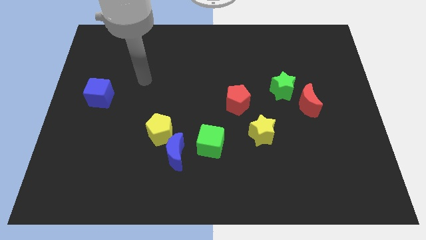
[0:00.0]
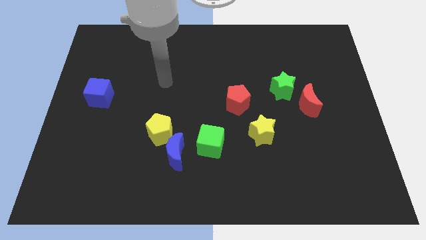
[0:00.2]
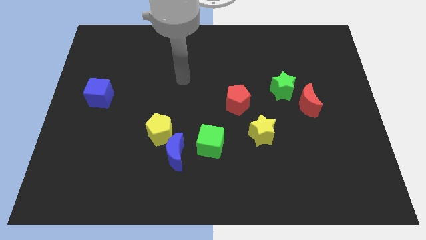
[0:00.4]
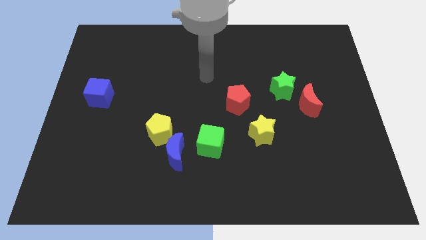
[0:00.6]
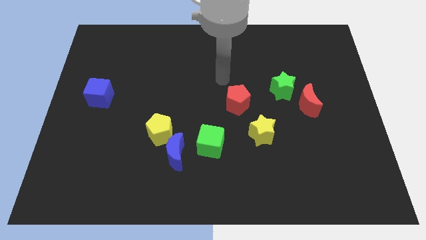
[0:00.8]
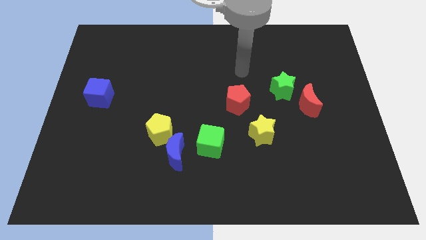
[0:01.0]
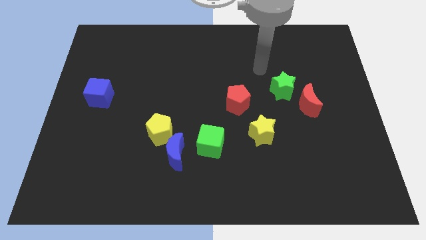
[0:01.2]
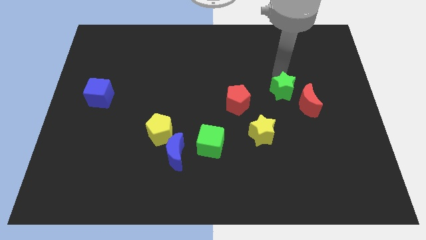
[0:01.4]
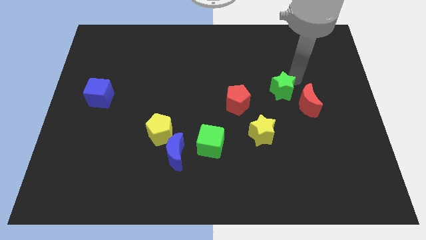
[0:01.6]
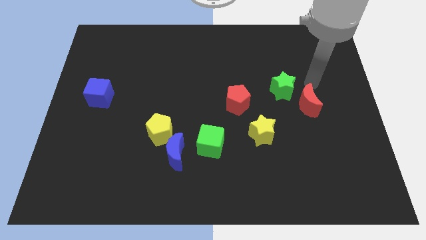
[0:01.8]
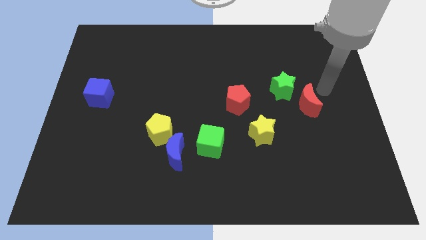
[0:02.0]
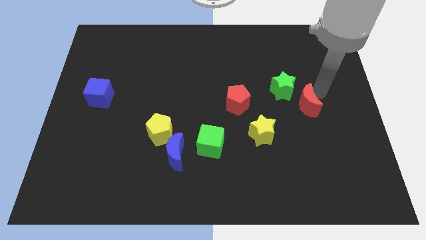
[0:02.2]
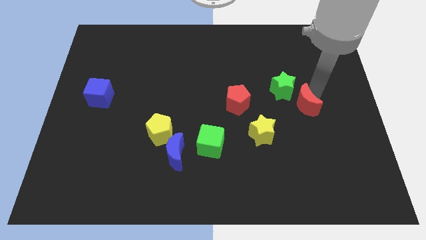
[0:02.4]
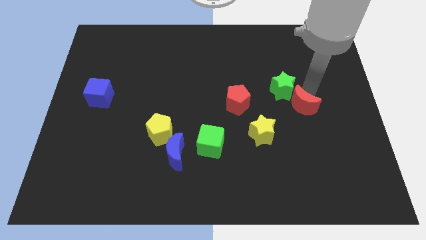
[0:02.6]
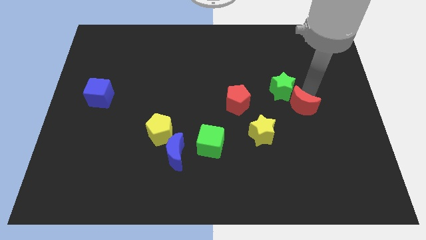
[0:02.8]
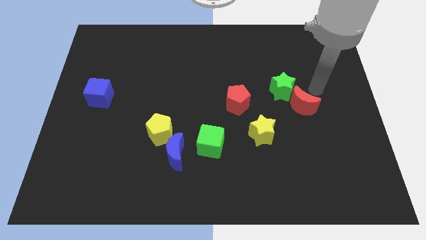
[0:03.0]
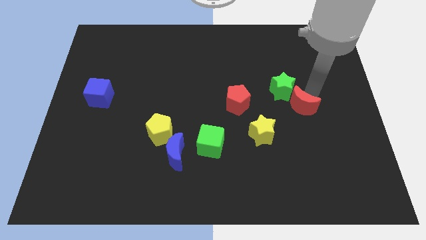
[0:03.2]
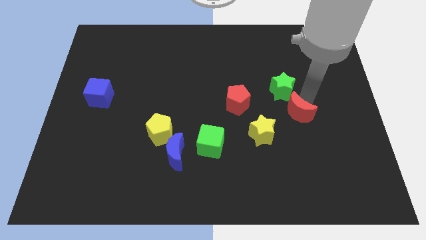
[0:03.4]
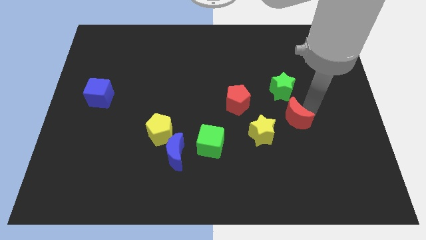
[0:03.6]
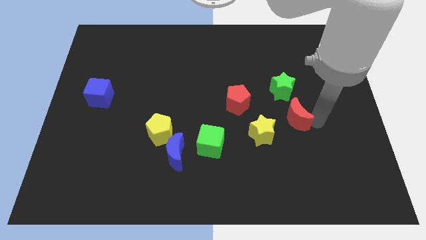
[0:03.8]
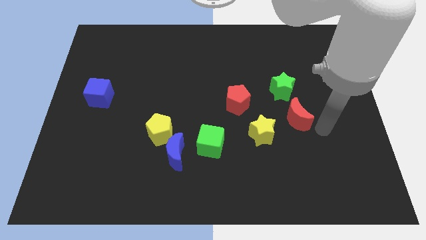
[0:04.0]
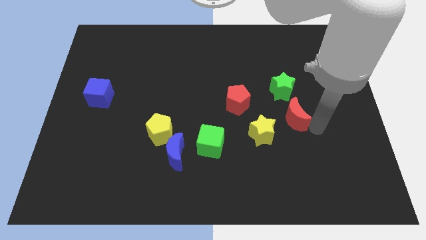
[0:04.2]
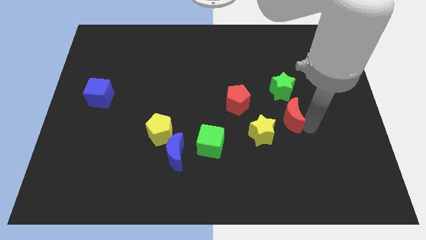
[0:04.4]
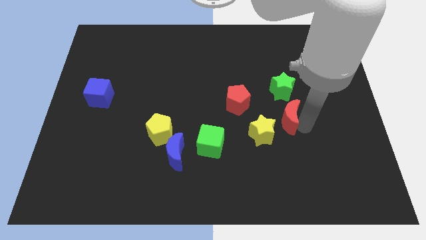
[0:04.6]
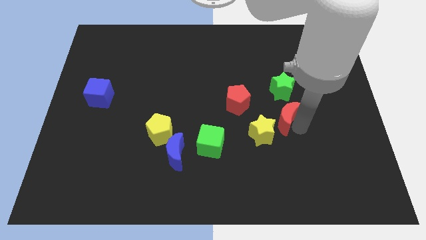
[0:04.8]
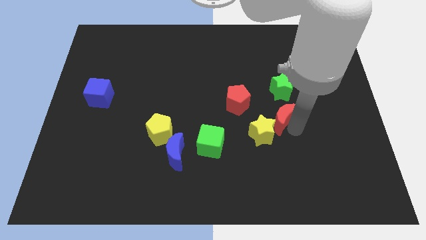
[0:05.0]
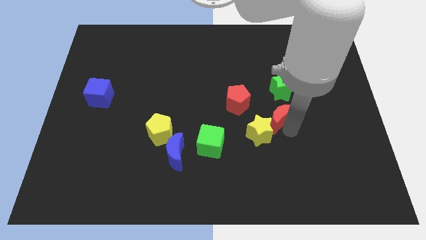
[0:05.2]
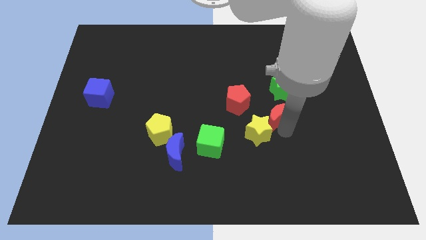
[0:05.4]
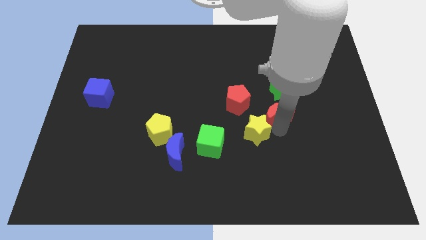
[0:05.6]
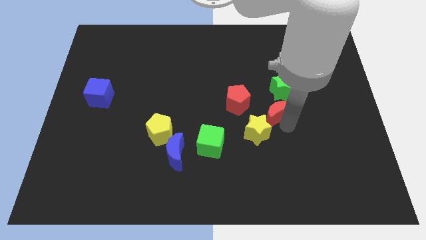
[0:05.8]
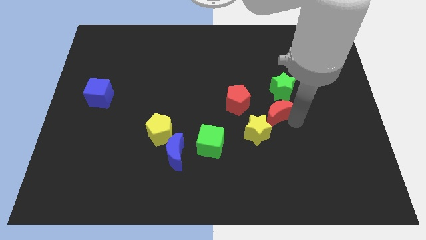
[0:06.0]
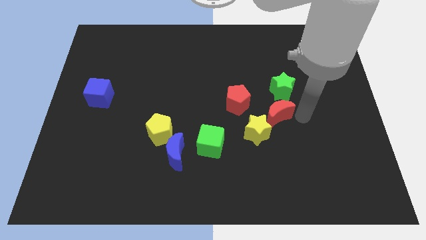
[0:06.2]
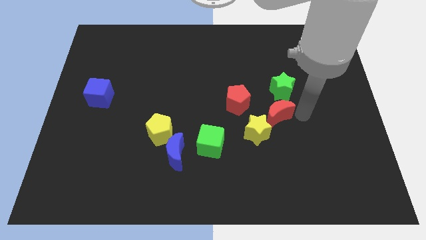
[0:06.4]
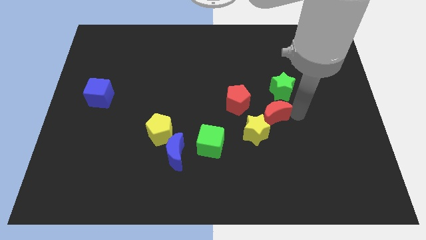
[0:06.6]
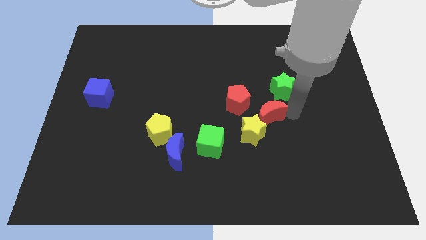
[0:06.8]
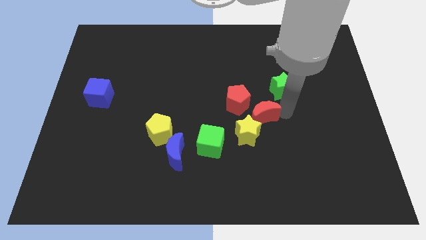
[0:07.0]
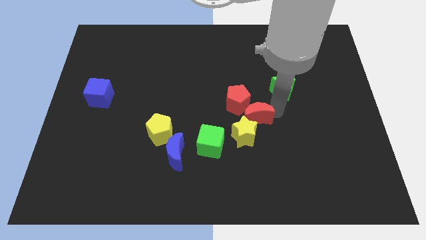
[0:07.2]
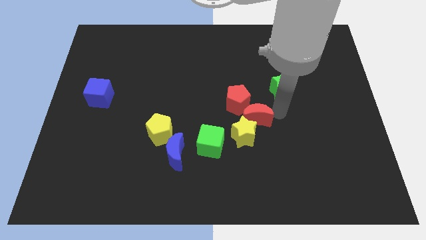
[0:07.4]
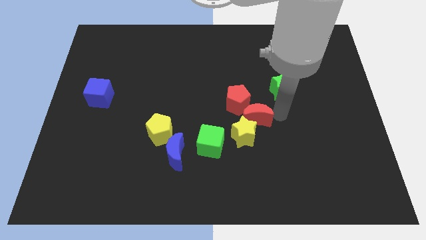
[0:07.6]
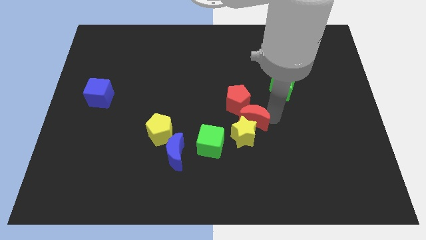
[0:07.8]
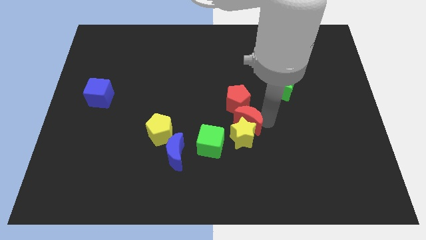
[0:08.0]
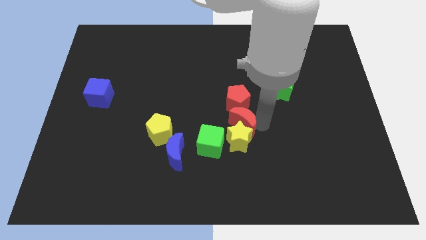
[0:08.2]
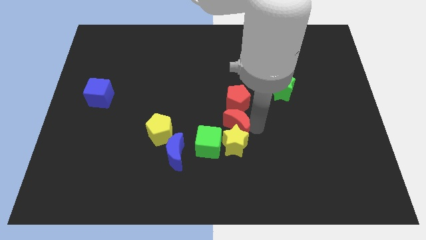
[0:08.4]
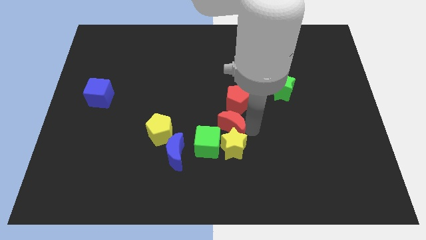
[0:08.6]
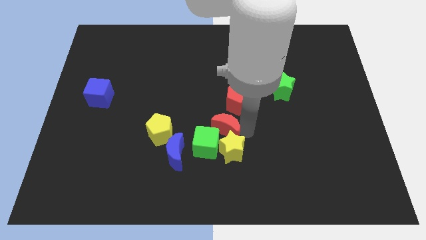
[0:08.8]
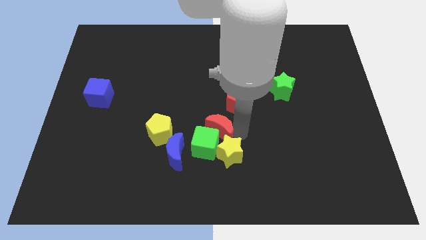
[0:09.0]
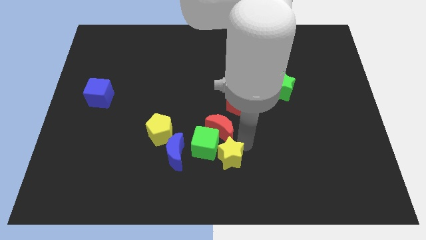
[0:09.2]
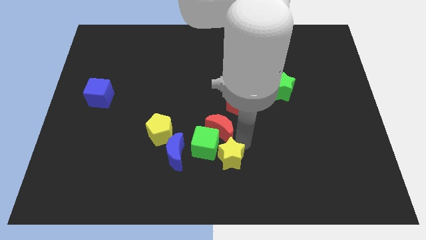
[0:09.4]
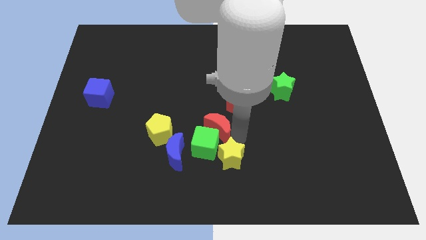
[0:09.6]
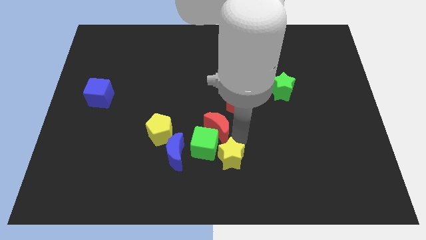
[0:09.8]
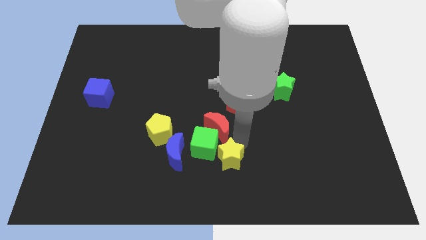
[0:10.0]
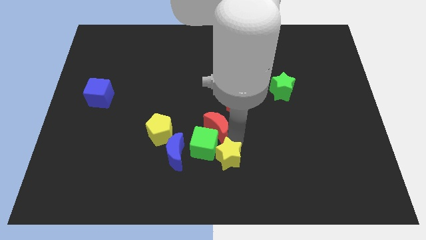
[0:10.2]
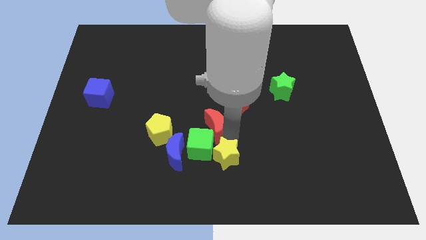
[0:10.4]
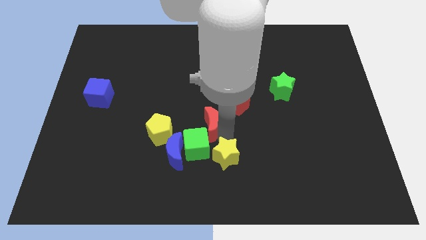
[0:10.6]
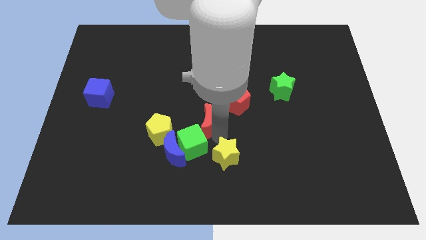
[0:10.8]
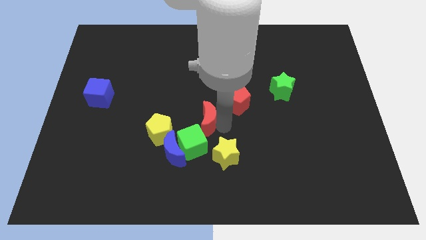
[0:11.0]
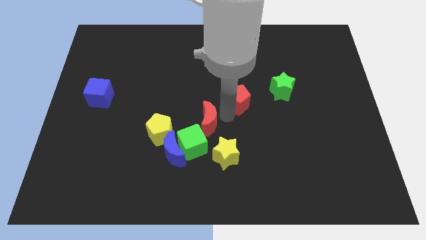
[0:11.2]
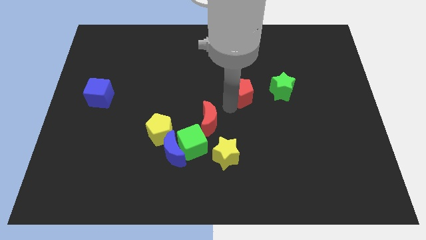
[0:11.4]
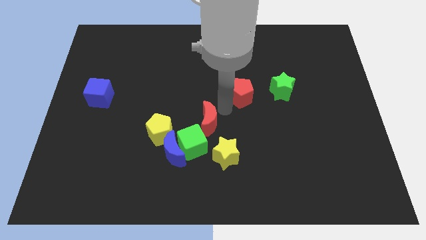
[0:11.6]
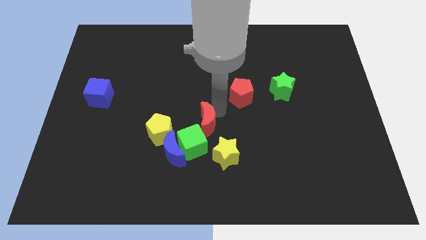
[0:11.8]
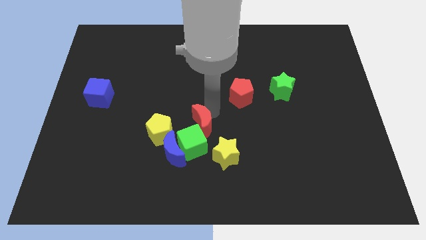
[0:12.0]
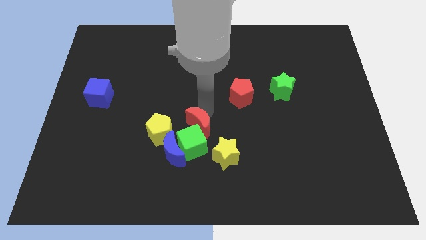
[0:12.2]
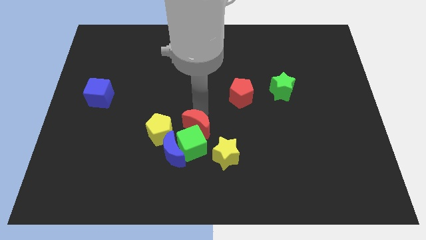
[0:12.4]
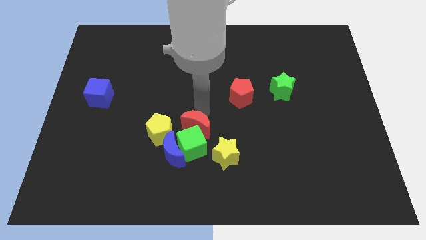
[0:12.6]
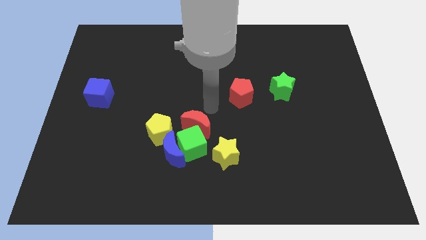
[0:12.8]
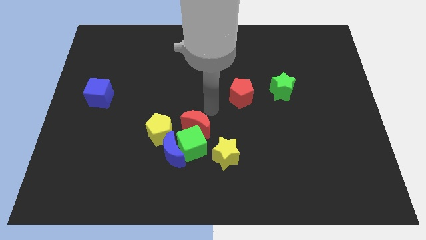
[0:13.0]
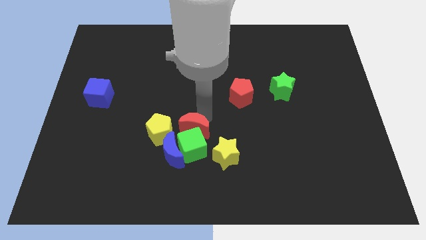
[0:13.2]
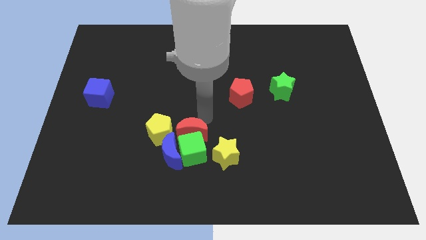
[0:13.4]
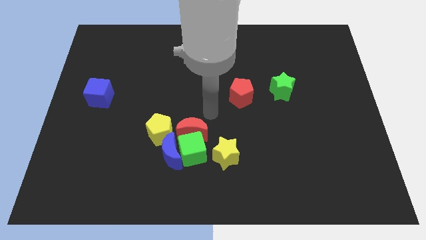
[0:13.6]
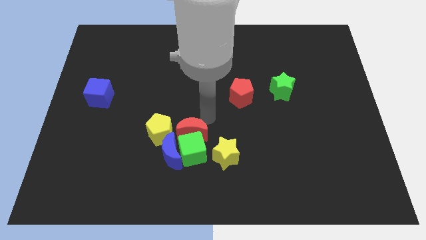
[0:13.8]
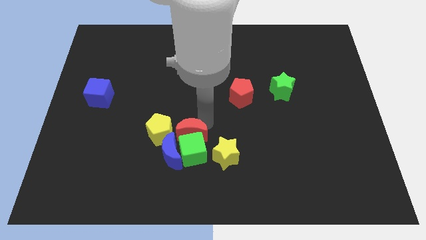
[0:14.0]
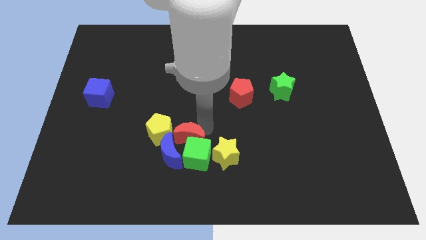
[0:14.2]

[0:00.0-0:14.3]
push the red moon close to the blue moon
